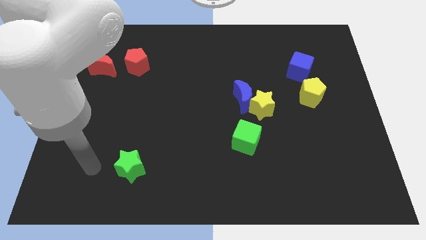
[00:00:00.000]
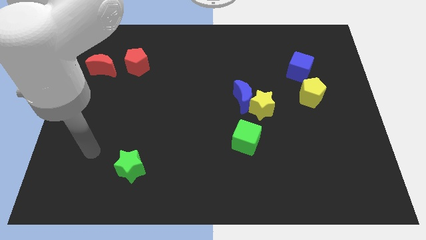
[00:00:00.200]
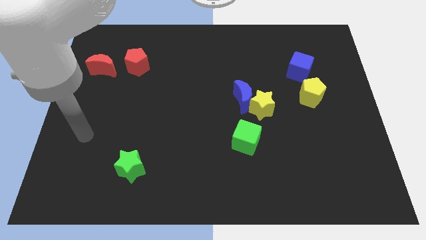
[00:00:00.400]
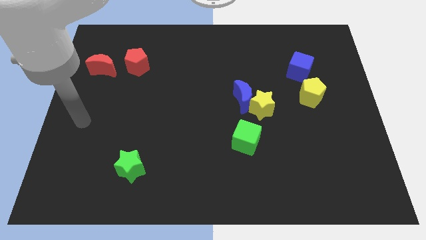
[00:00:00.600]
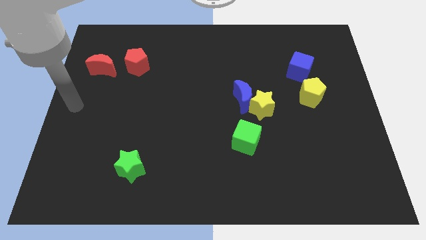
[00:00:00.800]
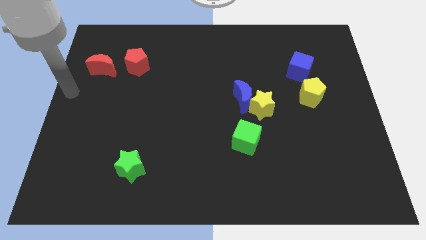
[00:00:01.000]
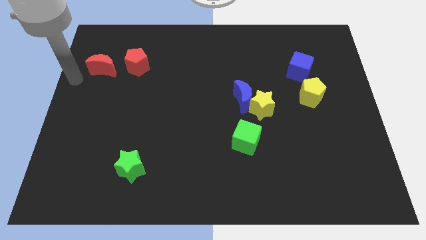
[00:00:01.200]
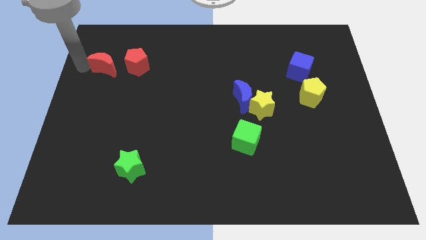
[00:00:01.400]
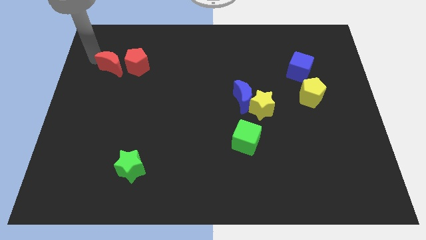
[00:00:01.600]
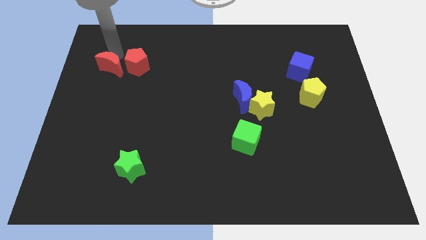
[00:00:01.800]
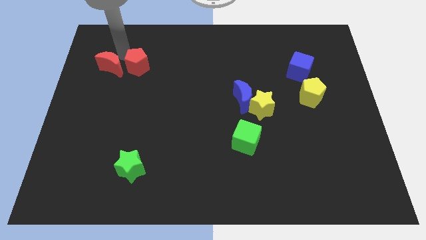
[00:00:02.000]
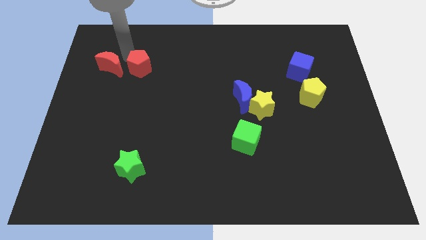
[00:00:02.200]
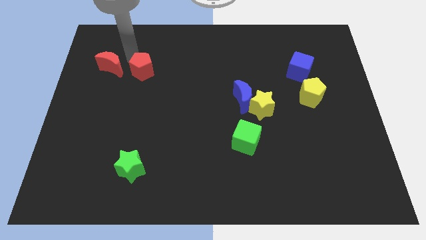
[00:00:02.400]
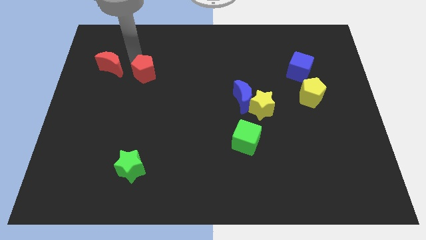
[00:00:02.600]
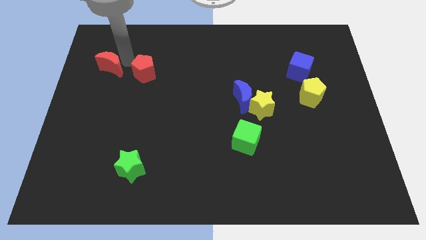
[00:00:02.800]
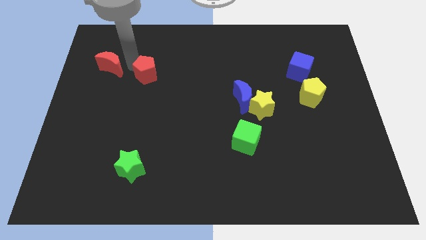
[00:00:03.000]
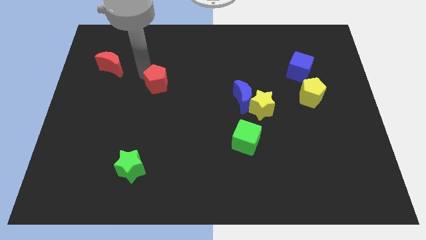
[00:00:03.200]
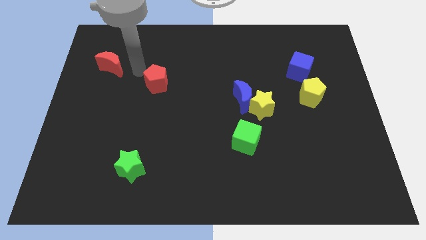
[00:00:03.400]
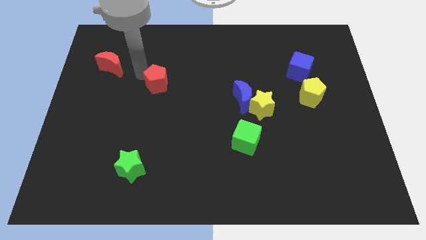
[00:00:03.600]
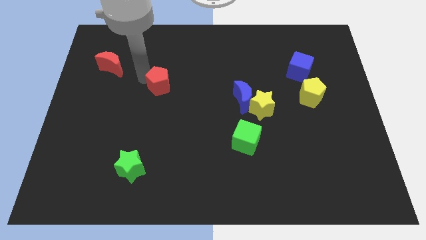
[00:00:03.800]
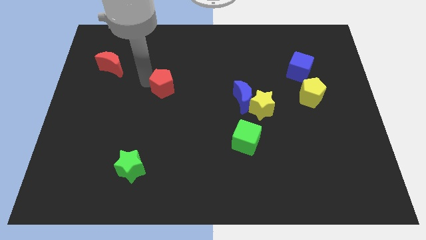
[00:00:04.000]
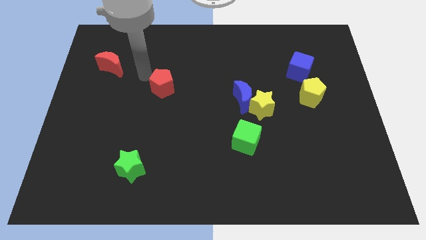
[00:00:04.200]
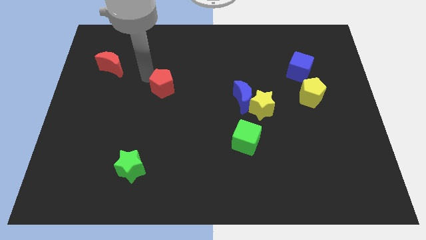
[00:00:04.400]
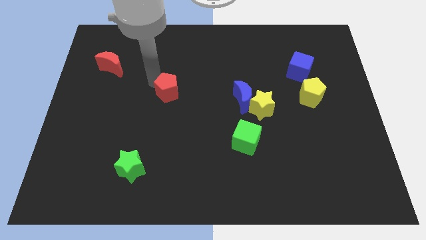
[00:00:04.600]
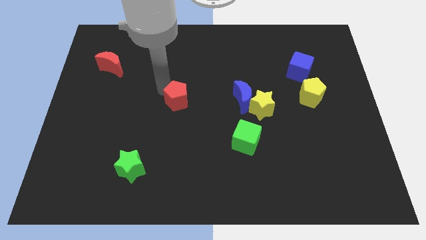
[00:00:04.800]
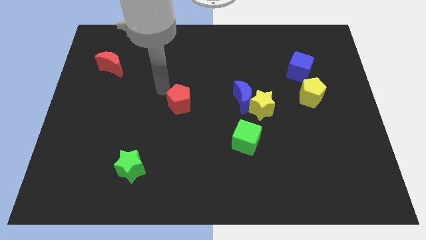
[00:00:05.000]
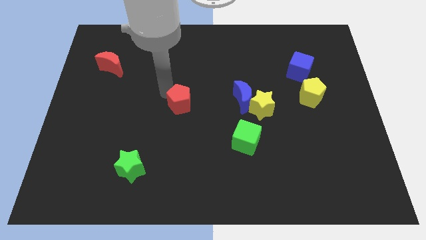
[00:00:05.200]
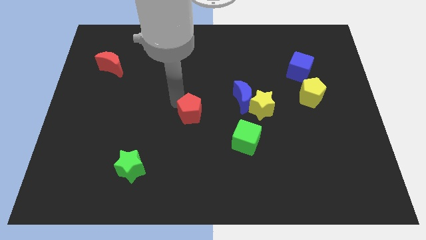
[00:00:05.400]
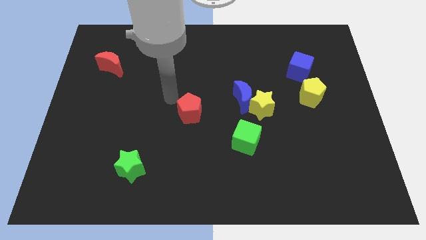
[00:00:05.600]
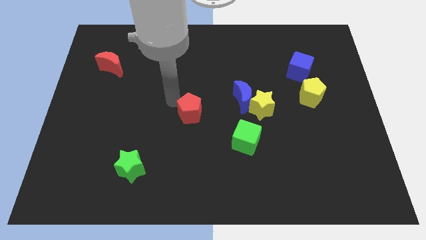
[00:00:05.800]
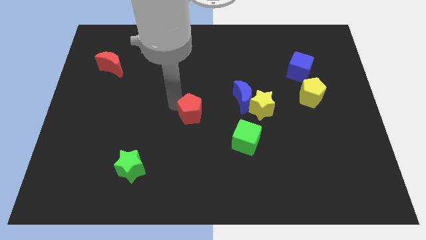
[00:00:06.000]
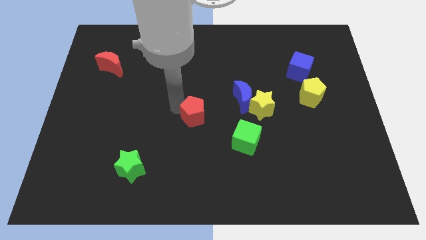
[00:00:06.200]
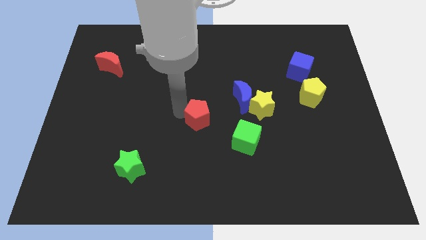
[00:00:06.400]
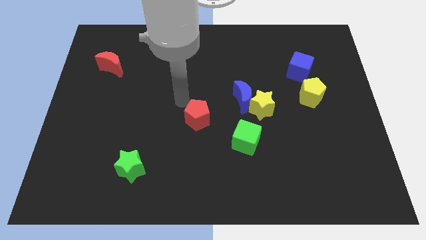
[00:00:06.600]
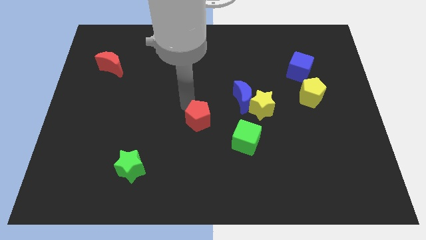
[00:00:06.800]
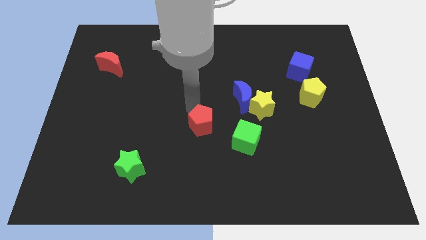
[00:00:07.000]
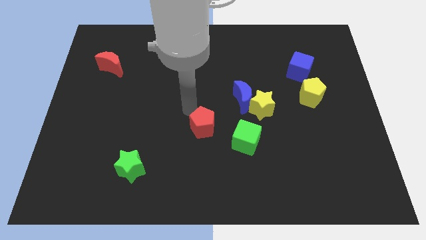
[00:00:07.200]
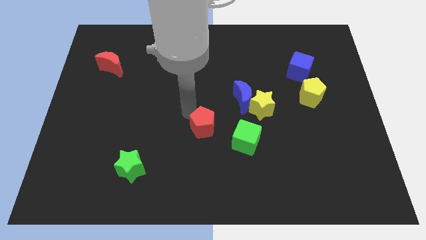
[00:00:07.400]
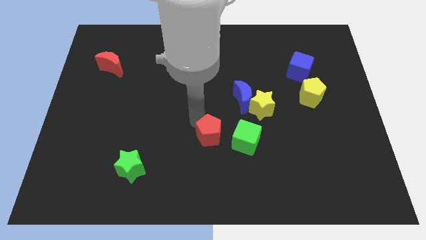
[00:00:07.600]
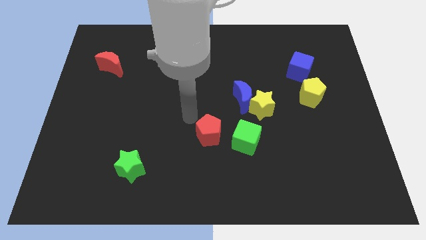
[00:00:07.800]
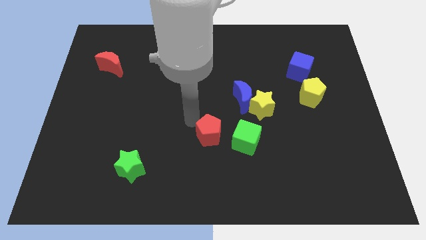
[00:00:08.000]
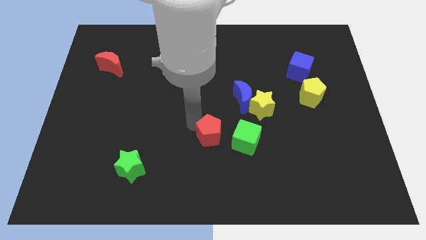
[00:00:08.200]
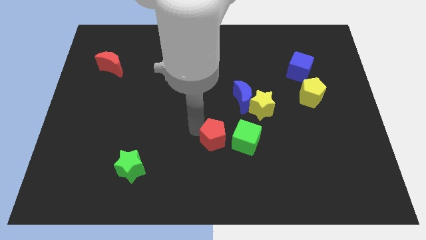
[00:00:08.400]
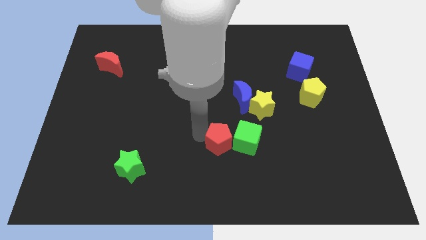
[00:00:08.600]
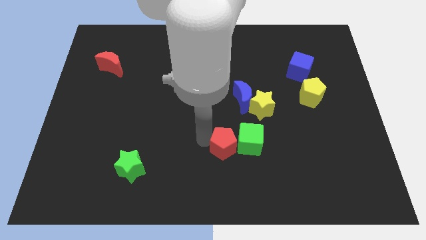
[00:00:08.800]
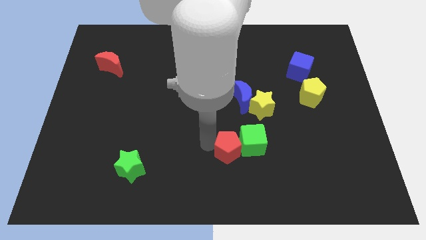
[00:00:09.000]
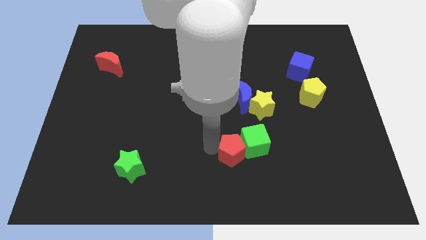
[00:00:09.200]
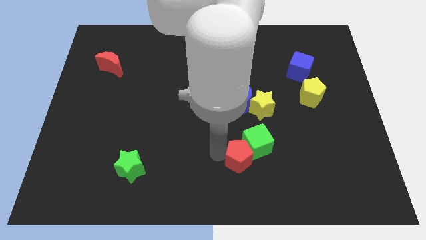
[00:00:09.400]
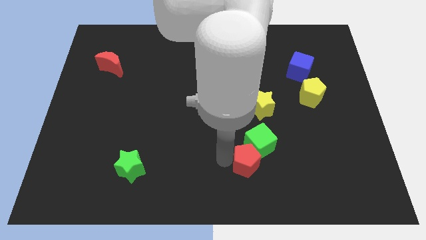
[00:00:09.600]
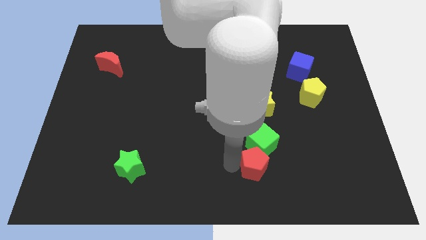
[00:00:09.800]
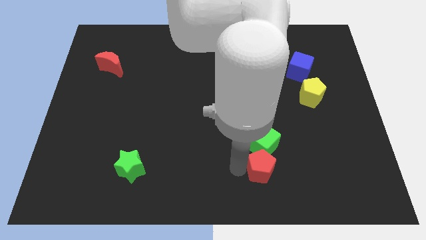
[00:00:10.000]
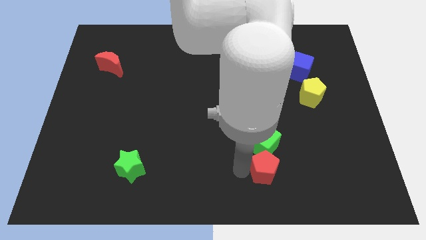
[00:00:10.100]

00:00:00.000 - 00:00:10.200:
slide the red pentagon to the bottom right side of the green cube

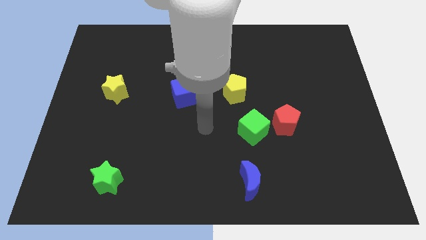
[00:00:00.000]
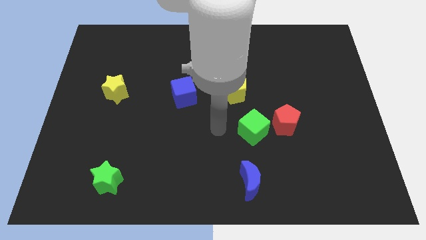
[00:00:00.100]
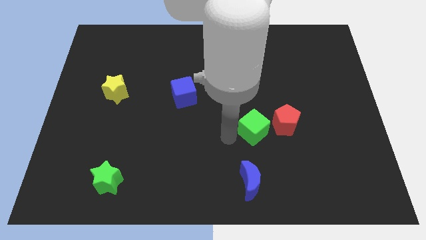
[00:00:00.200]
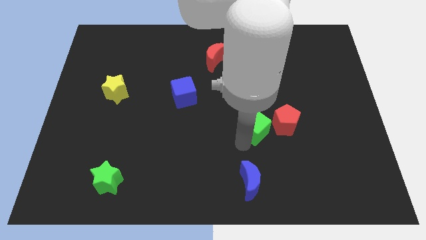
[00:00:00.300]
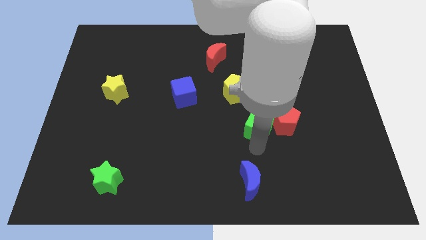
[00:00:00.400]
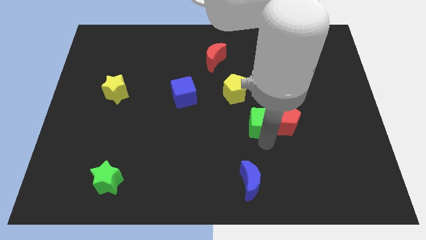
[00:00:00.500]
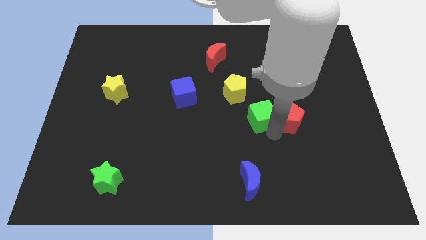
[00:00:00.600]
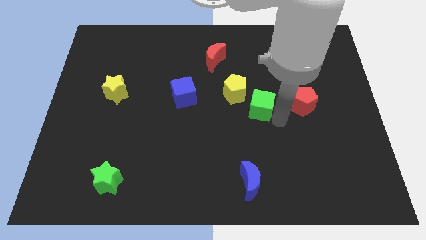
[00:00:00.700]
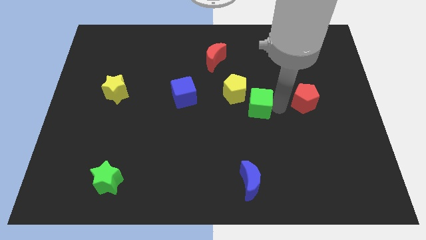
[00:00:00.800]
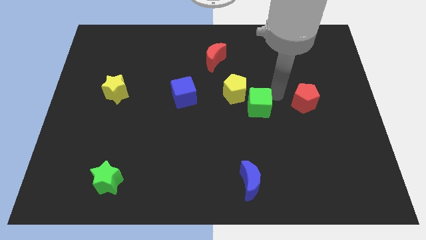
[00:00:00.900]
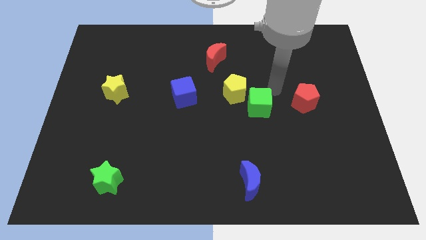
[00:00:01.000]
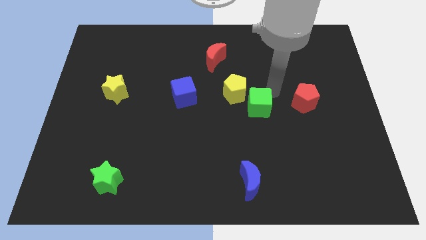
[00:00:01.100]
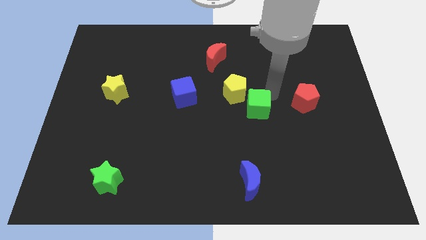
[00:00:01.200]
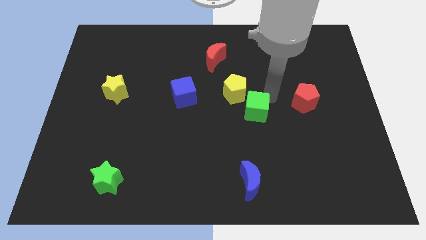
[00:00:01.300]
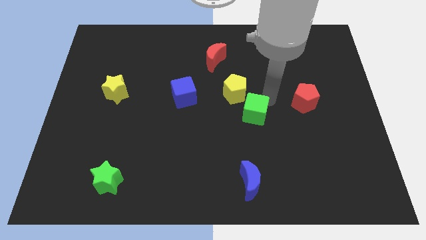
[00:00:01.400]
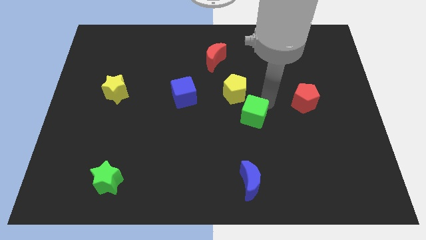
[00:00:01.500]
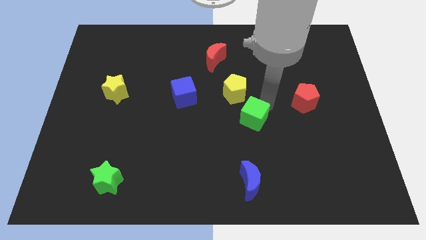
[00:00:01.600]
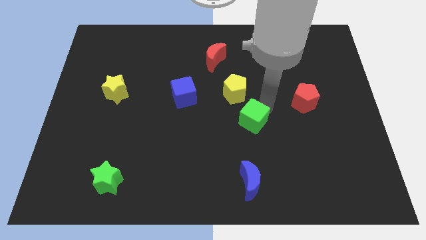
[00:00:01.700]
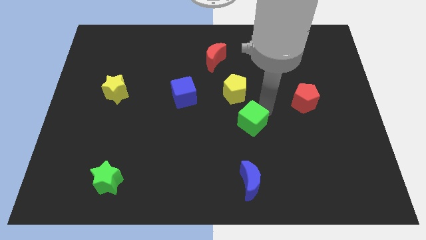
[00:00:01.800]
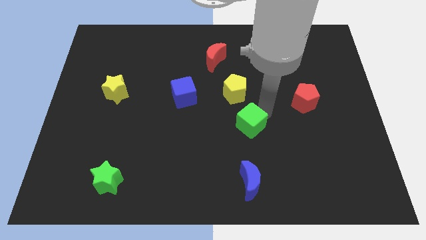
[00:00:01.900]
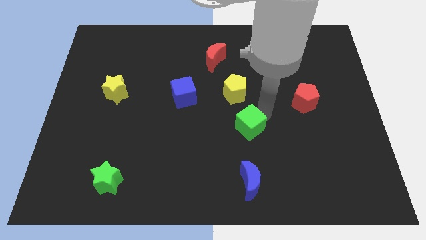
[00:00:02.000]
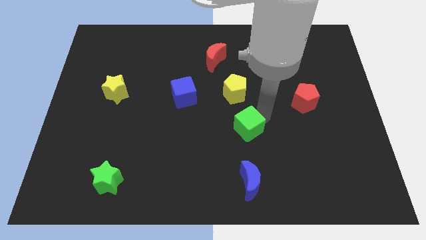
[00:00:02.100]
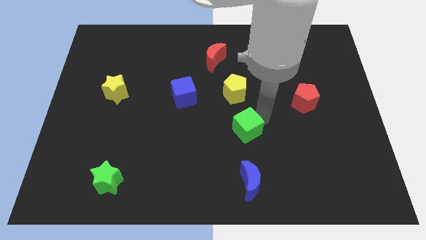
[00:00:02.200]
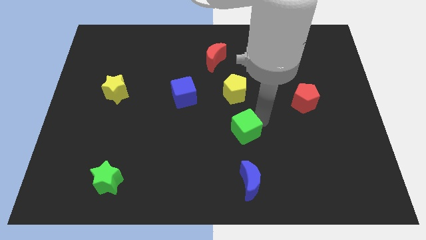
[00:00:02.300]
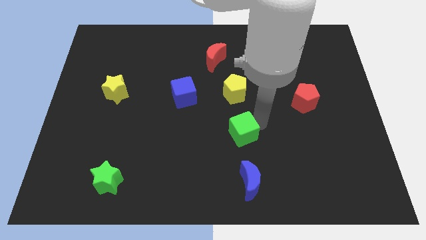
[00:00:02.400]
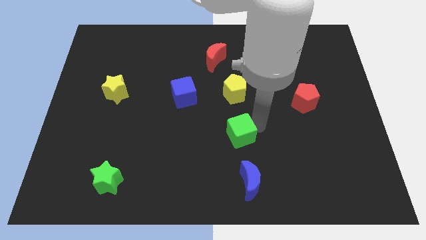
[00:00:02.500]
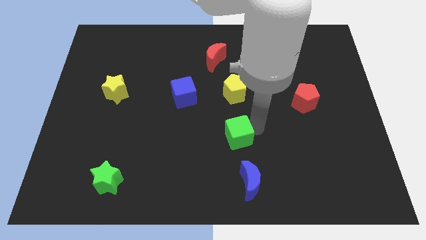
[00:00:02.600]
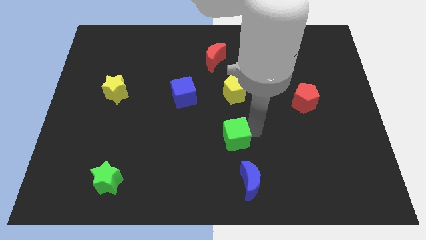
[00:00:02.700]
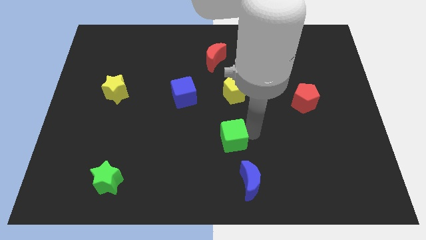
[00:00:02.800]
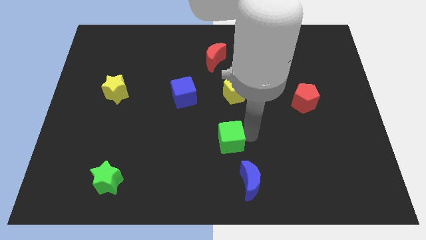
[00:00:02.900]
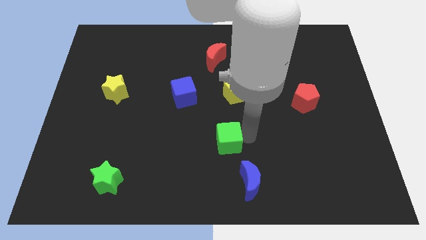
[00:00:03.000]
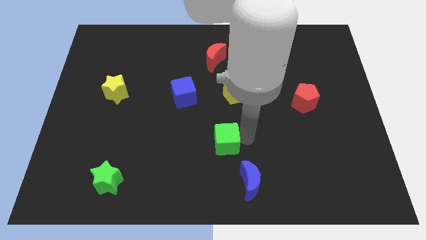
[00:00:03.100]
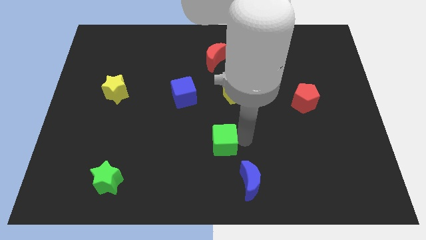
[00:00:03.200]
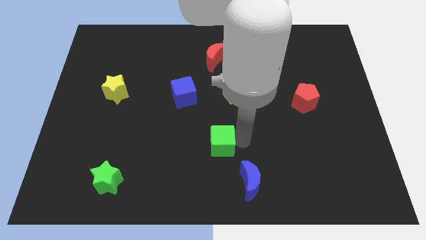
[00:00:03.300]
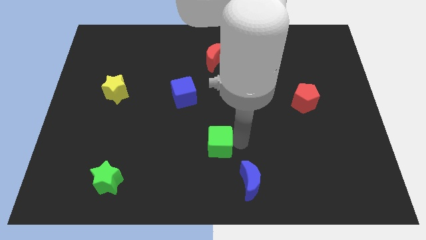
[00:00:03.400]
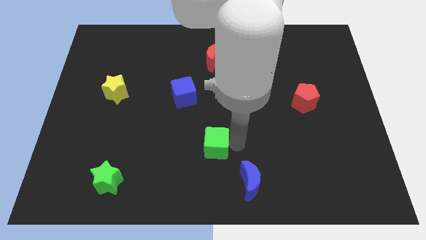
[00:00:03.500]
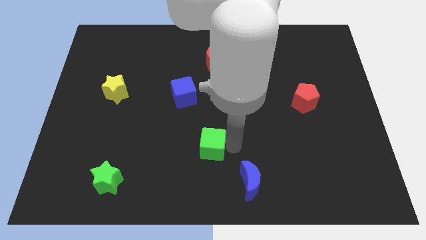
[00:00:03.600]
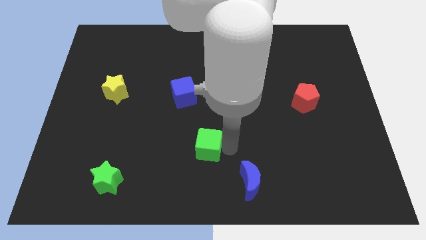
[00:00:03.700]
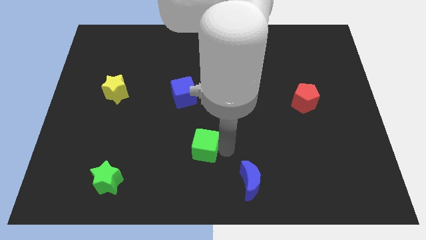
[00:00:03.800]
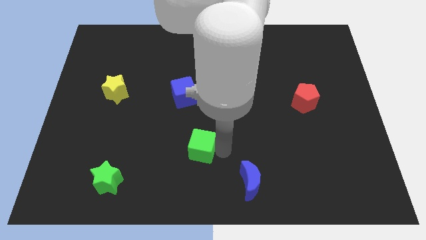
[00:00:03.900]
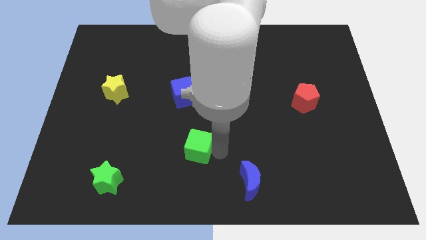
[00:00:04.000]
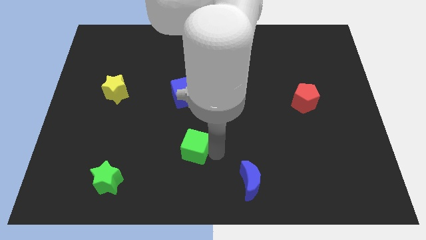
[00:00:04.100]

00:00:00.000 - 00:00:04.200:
slide the green cube below the blue cube
